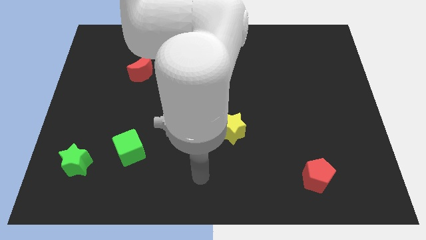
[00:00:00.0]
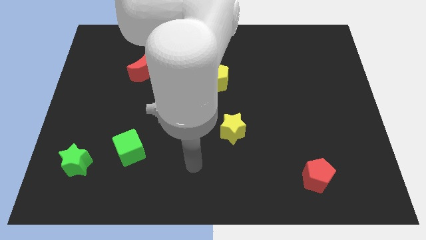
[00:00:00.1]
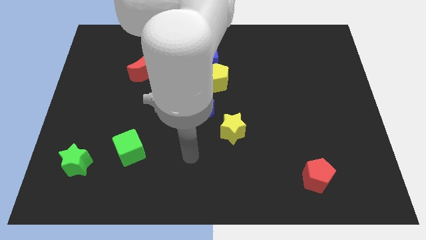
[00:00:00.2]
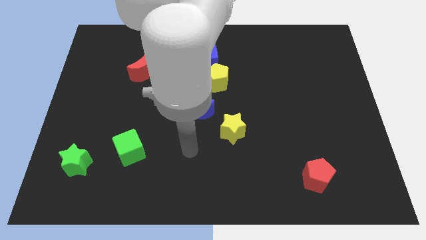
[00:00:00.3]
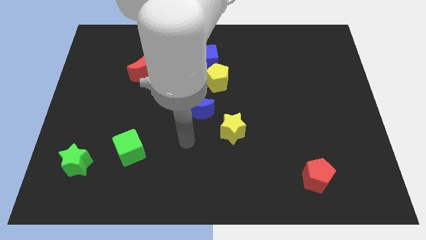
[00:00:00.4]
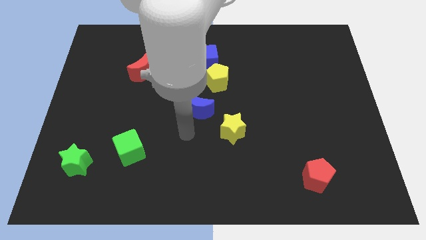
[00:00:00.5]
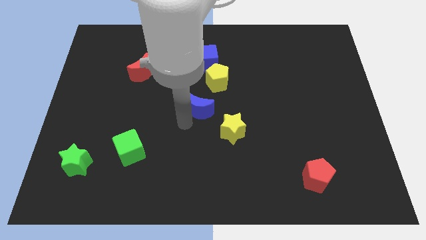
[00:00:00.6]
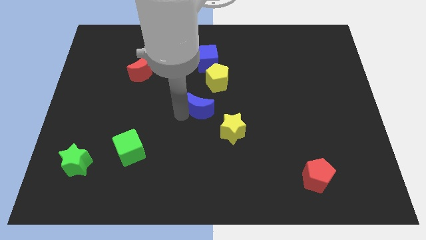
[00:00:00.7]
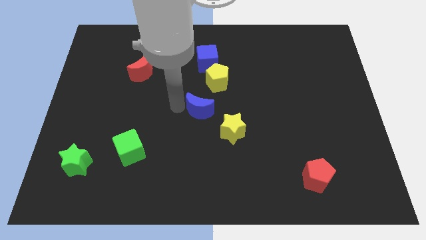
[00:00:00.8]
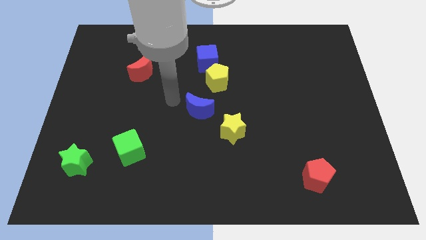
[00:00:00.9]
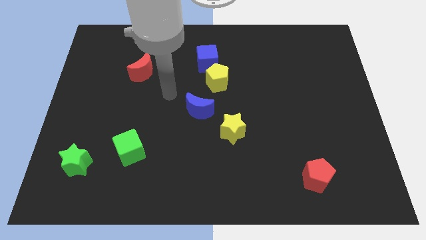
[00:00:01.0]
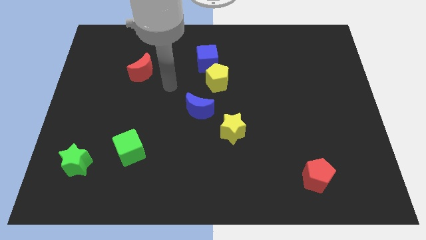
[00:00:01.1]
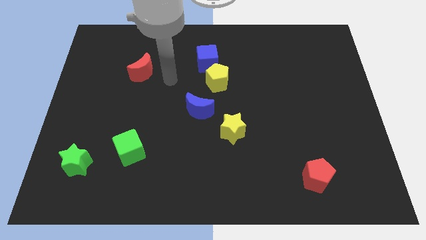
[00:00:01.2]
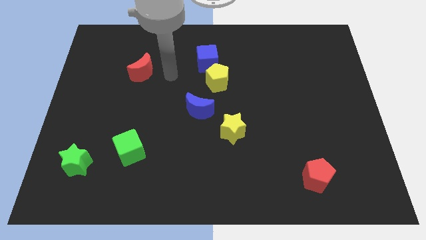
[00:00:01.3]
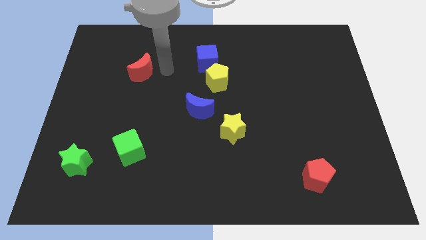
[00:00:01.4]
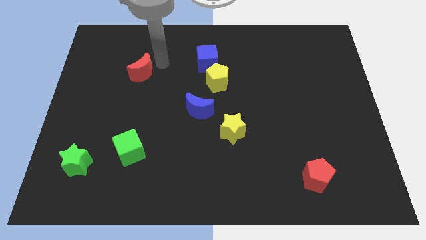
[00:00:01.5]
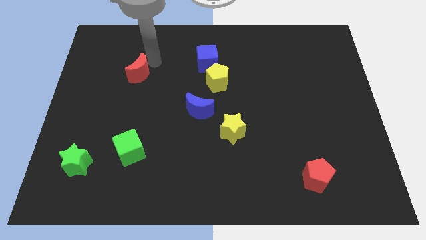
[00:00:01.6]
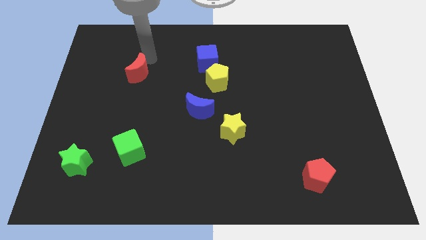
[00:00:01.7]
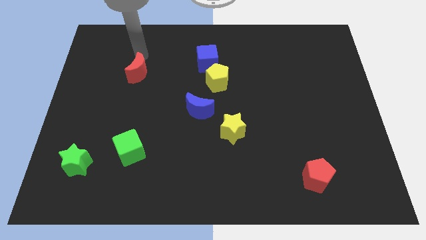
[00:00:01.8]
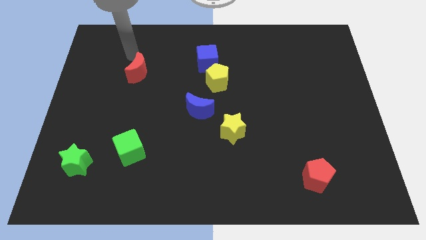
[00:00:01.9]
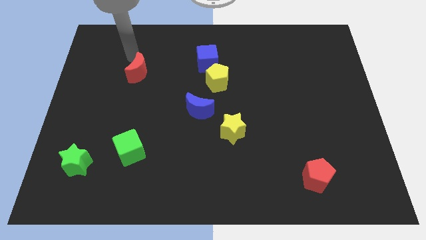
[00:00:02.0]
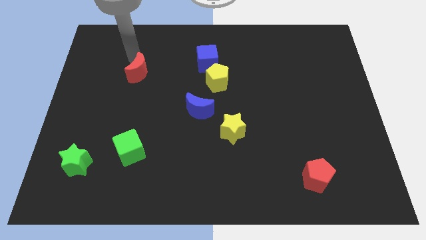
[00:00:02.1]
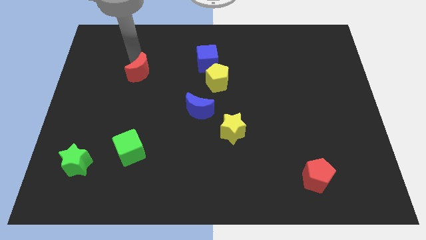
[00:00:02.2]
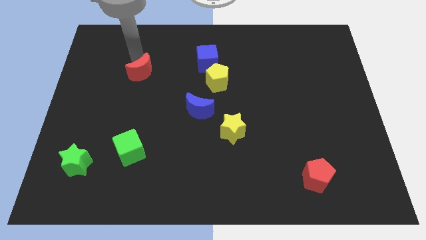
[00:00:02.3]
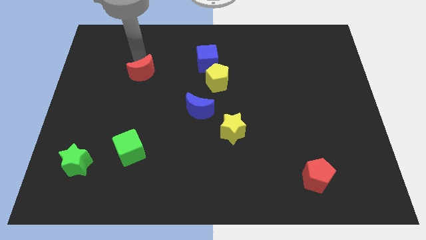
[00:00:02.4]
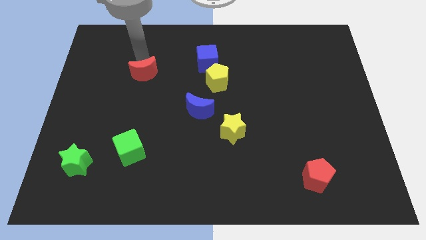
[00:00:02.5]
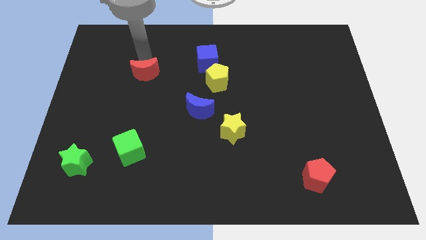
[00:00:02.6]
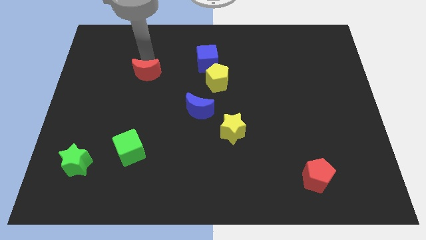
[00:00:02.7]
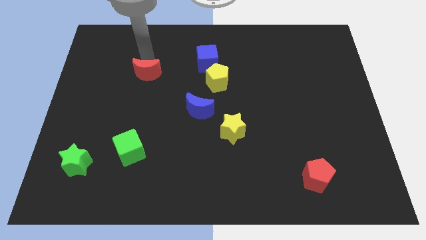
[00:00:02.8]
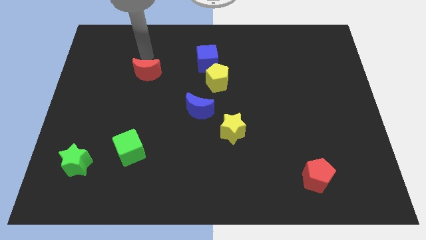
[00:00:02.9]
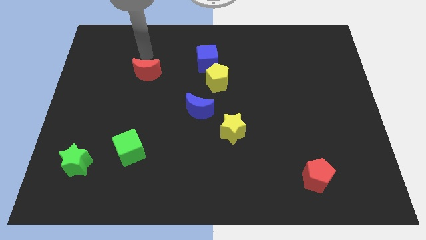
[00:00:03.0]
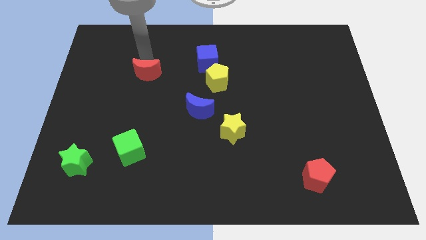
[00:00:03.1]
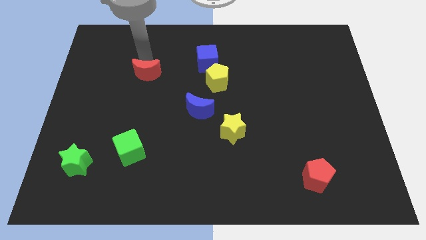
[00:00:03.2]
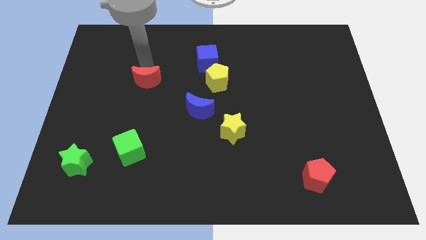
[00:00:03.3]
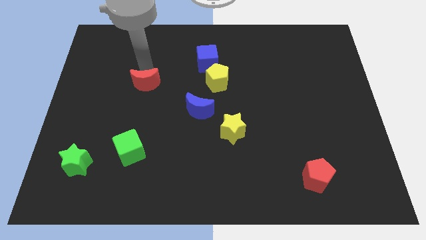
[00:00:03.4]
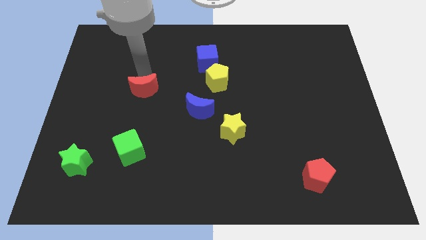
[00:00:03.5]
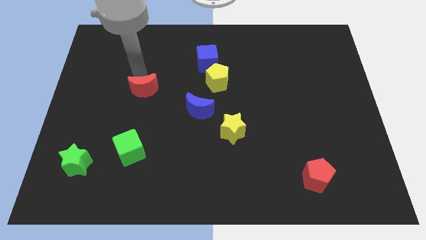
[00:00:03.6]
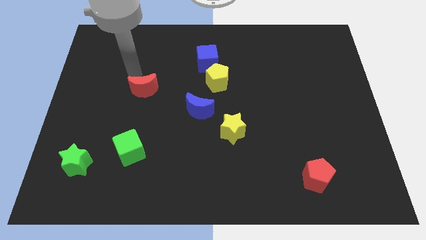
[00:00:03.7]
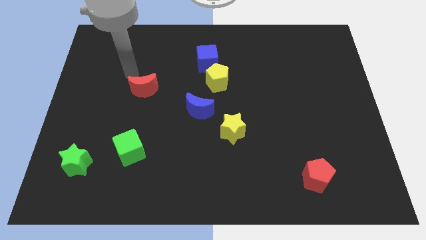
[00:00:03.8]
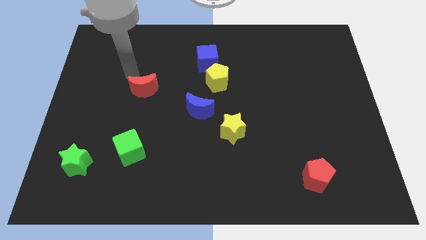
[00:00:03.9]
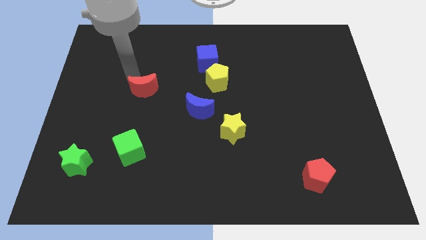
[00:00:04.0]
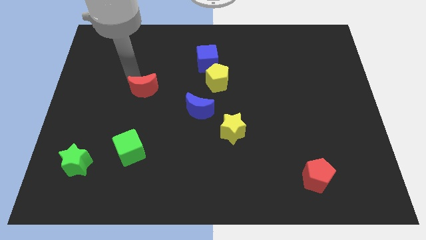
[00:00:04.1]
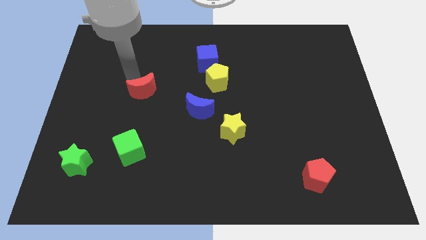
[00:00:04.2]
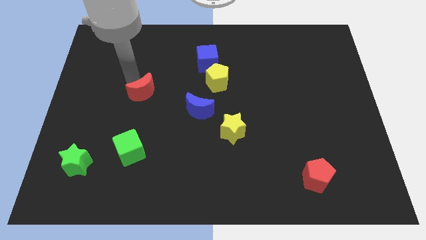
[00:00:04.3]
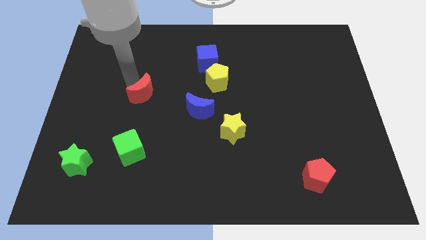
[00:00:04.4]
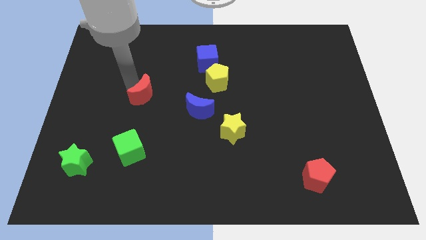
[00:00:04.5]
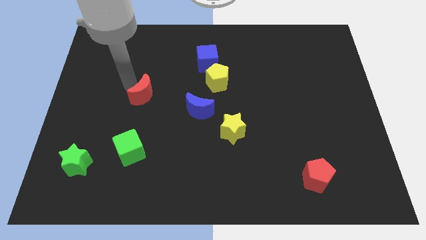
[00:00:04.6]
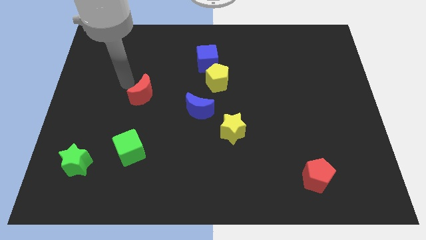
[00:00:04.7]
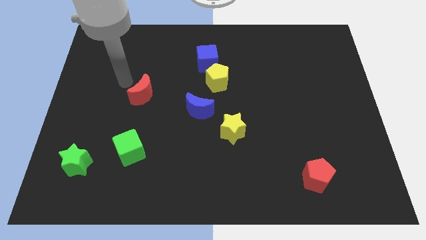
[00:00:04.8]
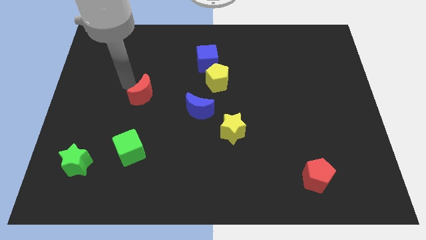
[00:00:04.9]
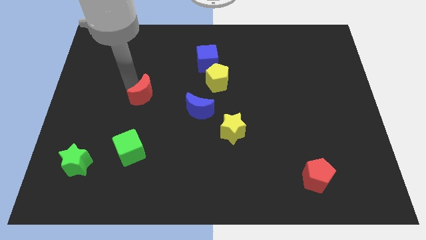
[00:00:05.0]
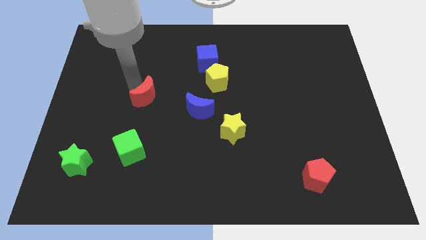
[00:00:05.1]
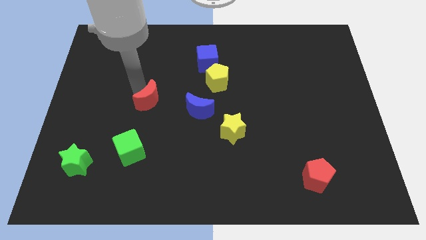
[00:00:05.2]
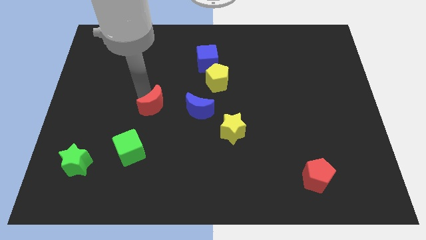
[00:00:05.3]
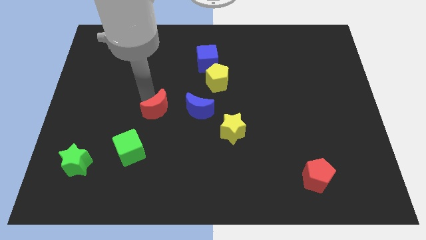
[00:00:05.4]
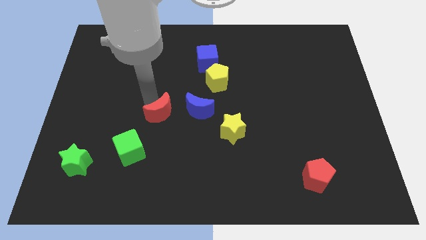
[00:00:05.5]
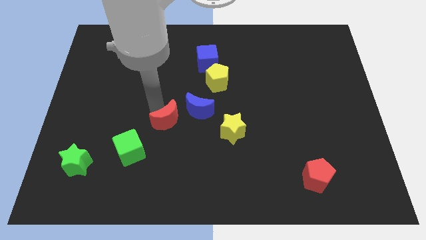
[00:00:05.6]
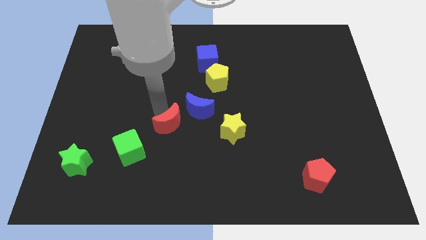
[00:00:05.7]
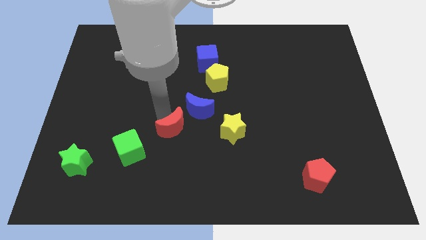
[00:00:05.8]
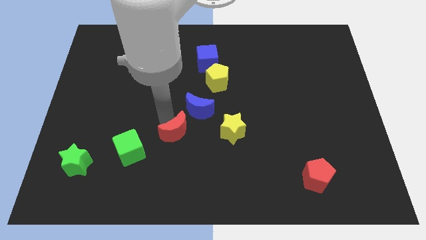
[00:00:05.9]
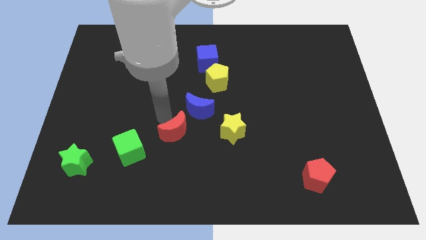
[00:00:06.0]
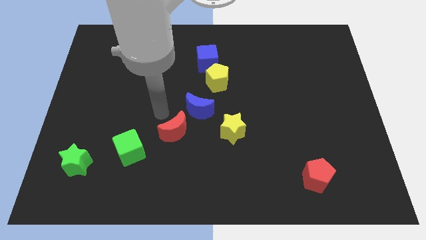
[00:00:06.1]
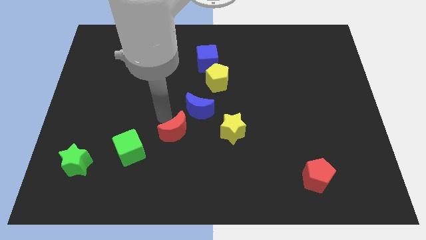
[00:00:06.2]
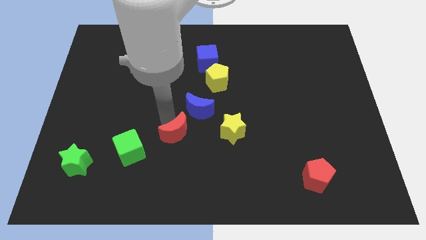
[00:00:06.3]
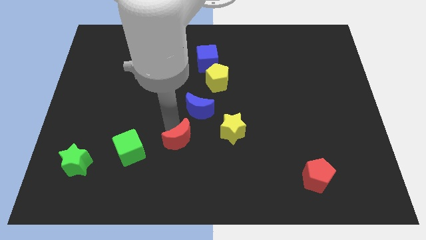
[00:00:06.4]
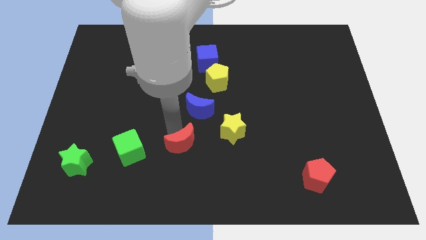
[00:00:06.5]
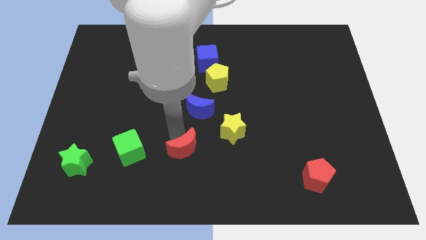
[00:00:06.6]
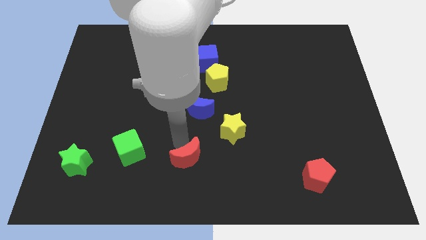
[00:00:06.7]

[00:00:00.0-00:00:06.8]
push the red moon to the bottom side
